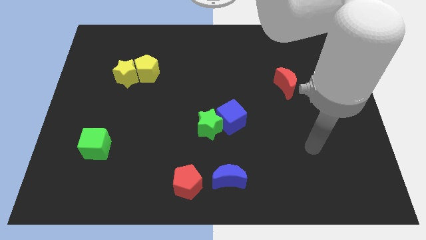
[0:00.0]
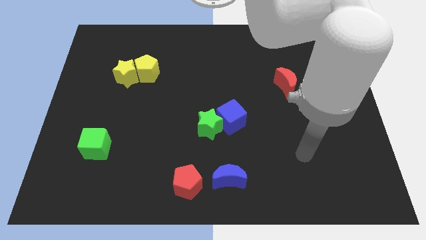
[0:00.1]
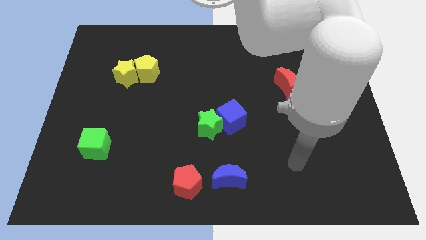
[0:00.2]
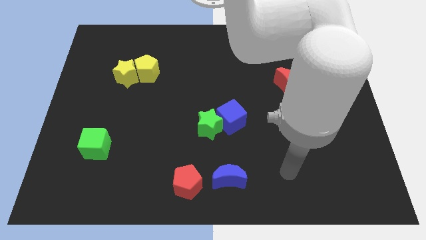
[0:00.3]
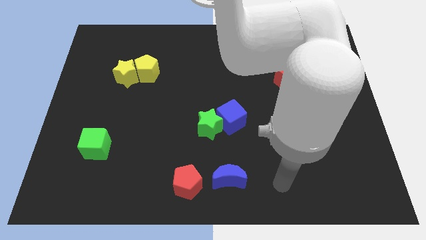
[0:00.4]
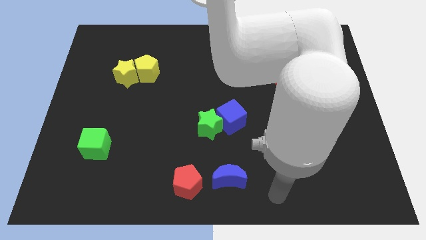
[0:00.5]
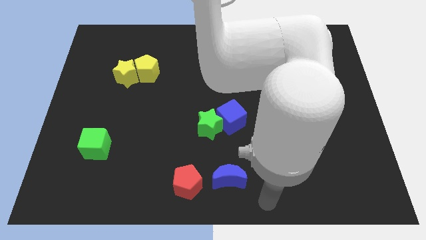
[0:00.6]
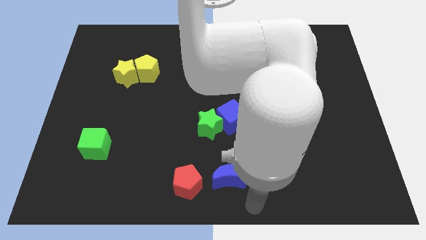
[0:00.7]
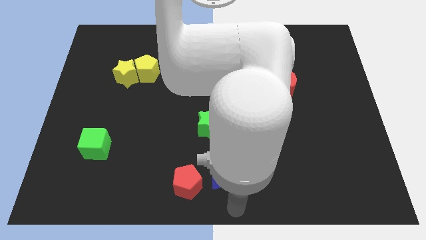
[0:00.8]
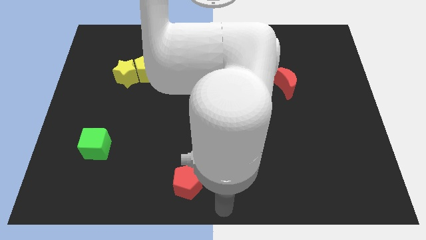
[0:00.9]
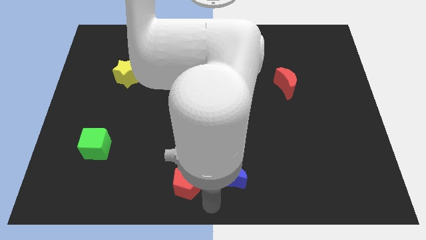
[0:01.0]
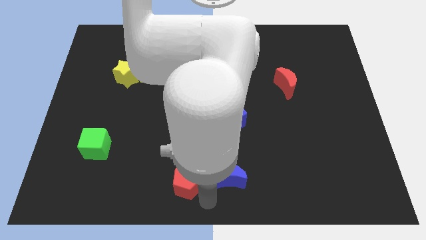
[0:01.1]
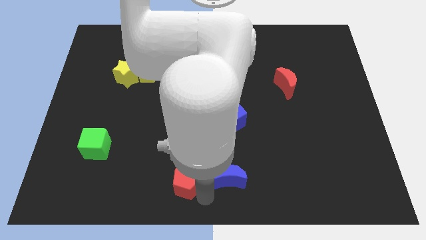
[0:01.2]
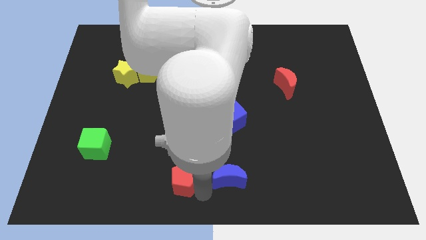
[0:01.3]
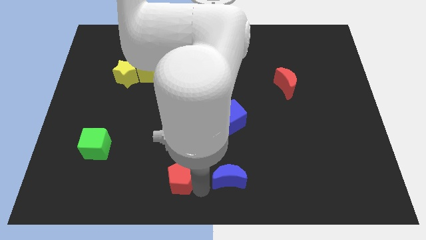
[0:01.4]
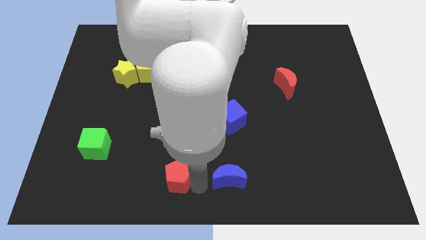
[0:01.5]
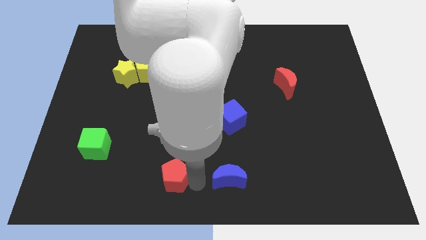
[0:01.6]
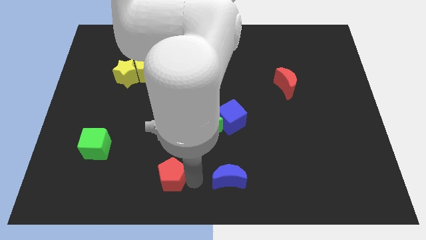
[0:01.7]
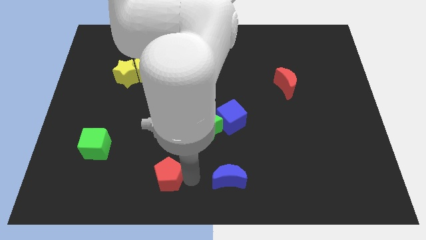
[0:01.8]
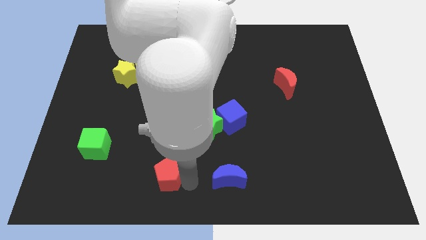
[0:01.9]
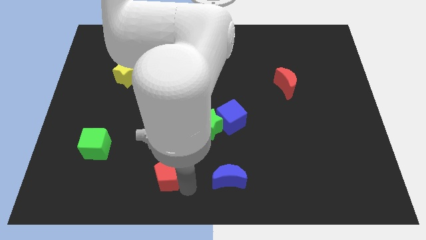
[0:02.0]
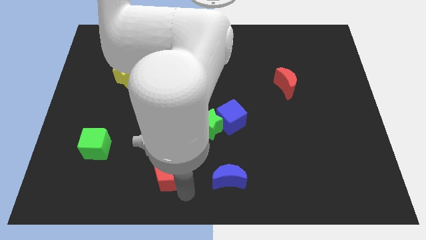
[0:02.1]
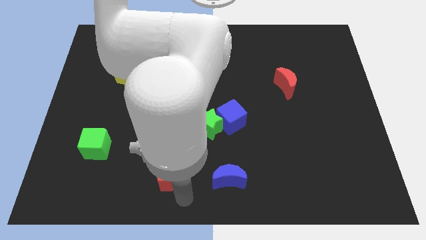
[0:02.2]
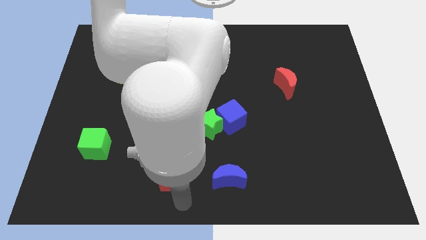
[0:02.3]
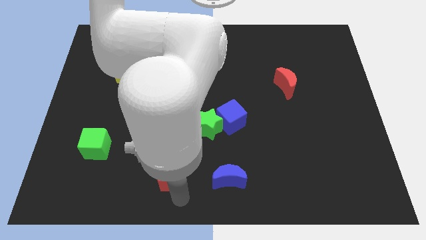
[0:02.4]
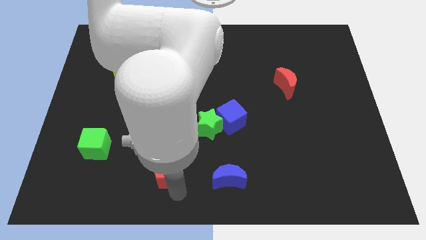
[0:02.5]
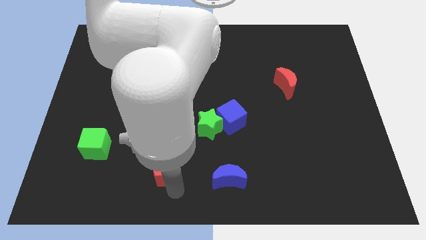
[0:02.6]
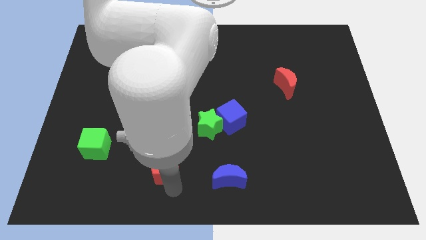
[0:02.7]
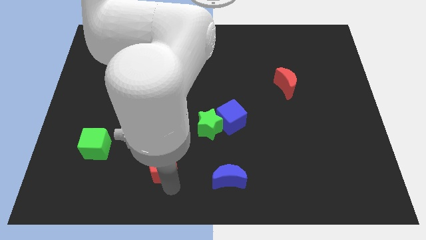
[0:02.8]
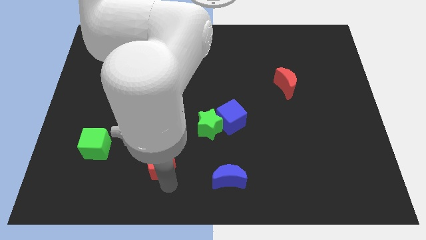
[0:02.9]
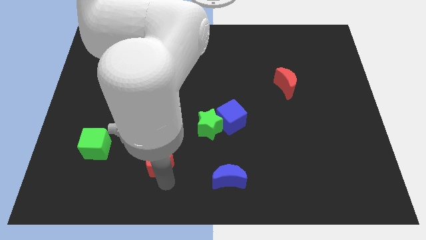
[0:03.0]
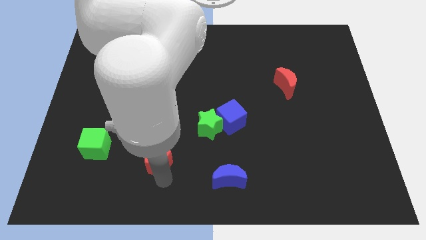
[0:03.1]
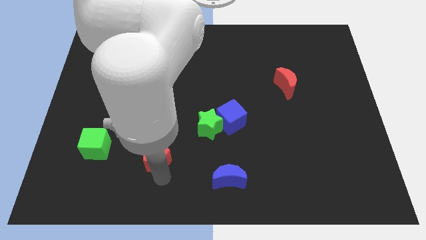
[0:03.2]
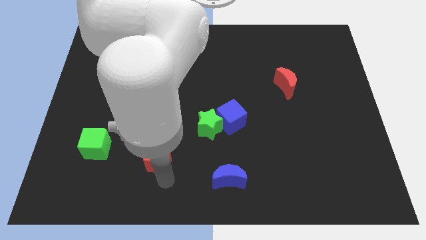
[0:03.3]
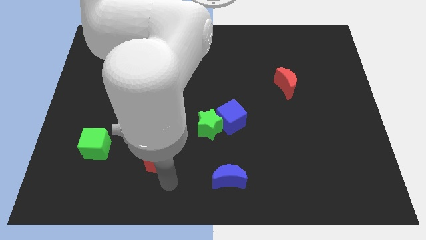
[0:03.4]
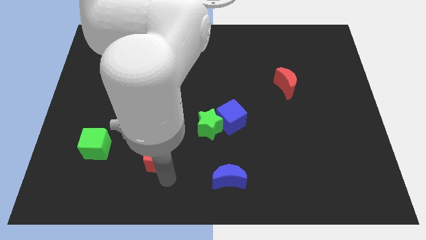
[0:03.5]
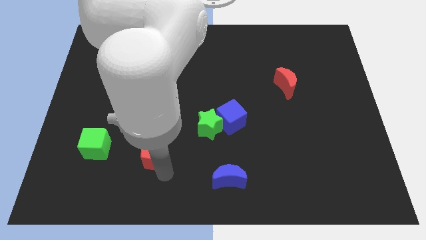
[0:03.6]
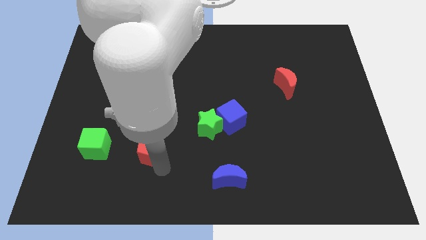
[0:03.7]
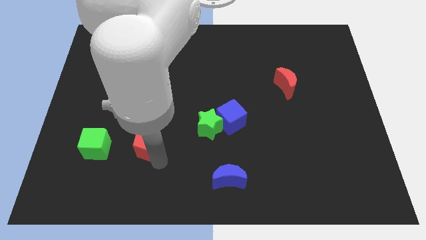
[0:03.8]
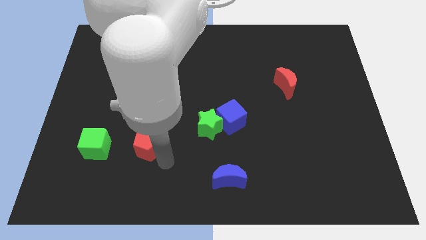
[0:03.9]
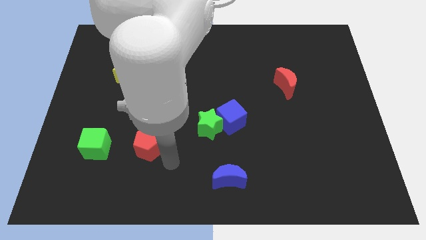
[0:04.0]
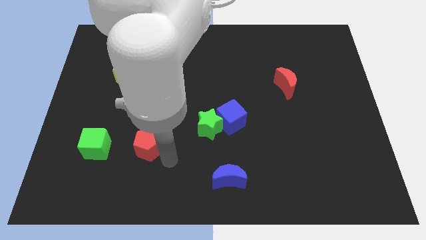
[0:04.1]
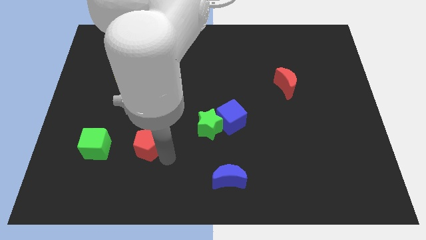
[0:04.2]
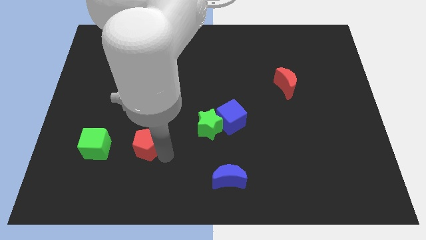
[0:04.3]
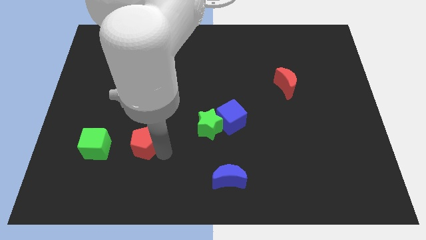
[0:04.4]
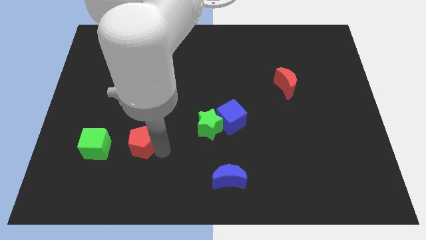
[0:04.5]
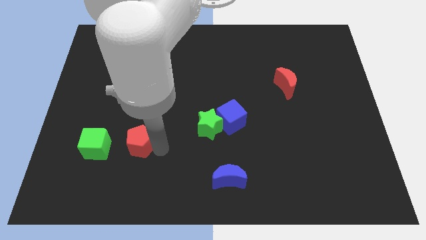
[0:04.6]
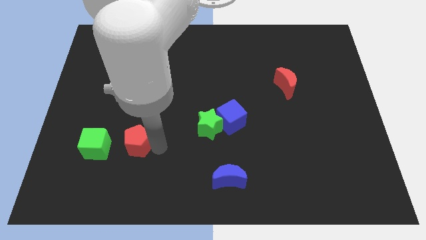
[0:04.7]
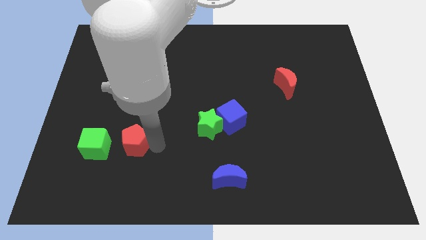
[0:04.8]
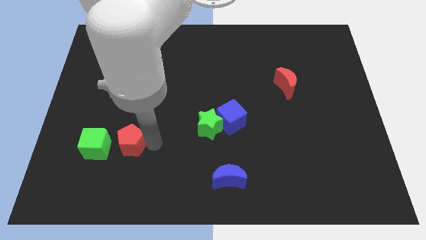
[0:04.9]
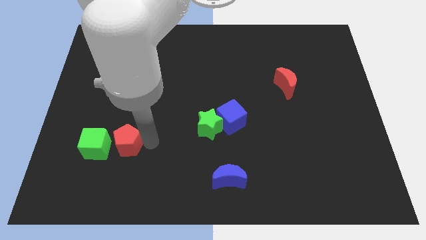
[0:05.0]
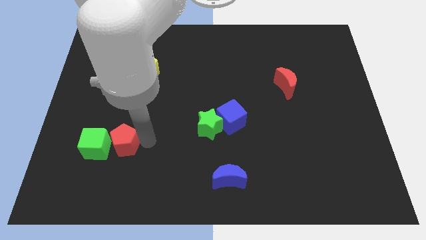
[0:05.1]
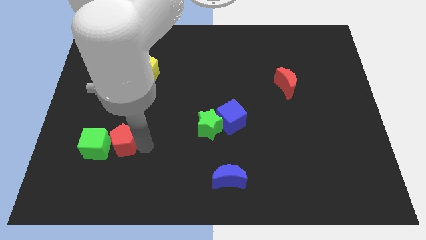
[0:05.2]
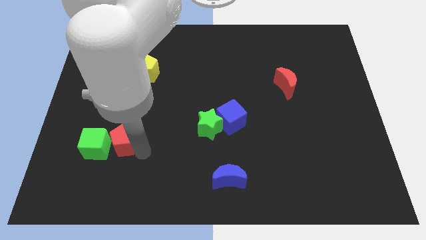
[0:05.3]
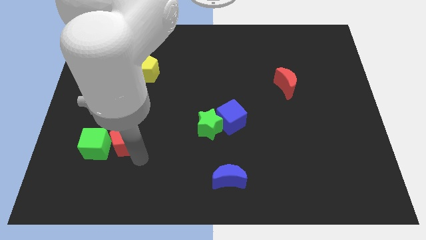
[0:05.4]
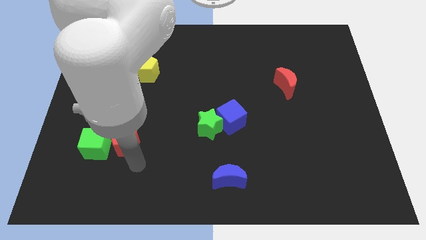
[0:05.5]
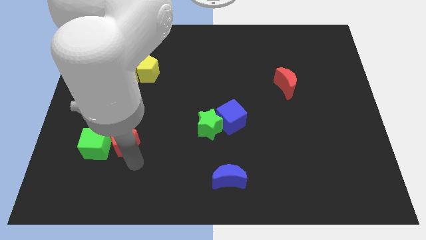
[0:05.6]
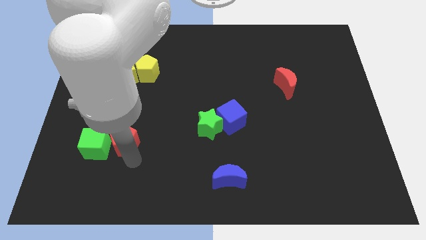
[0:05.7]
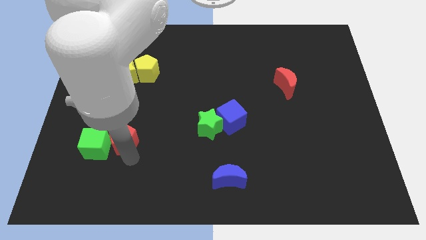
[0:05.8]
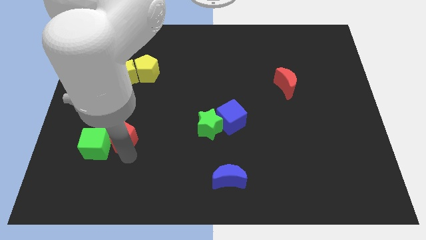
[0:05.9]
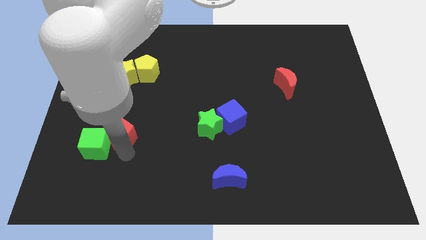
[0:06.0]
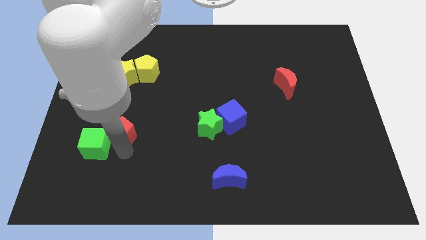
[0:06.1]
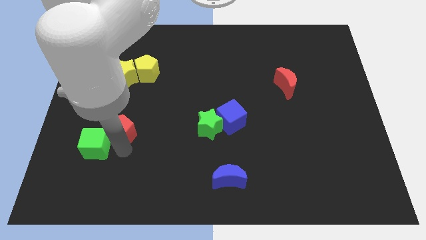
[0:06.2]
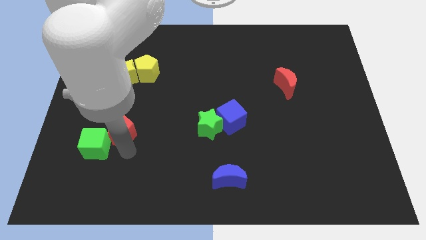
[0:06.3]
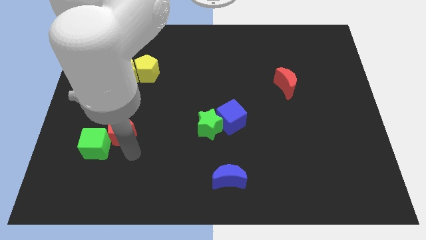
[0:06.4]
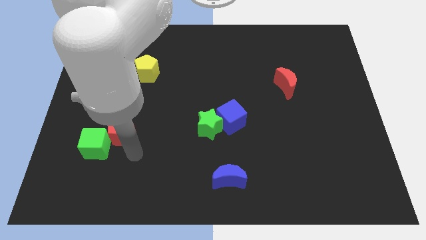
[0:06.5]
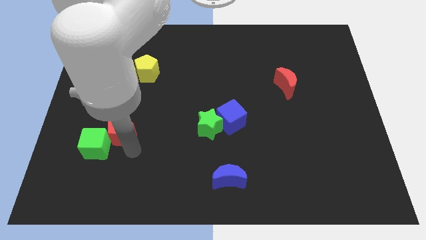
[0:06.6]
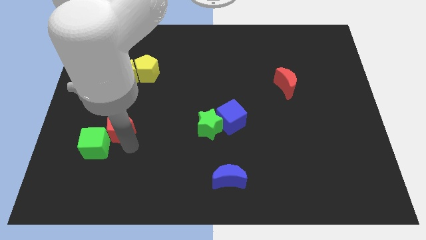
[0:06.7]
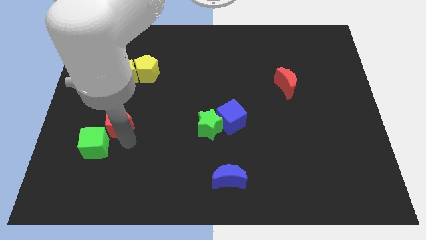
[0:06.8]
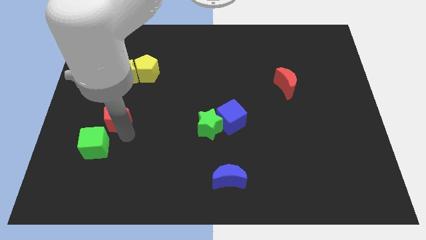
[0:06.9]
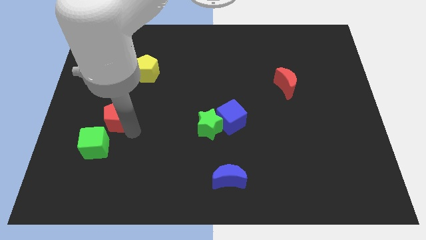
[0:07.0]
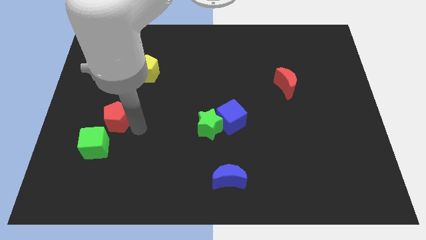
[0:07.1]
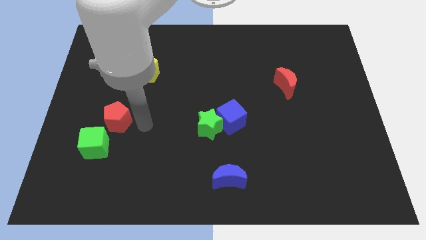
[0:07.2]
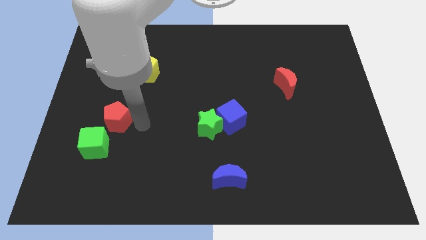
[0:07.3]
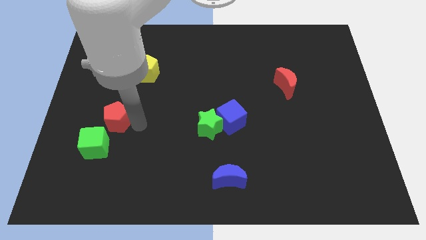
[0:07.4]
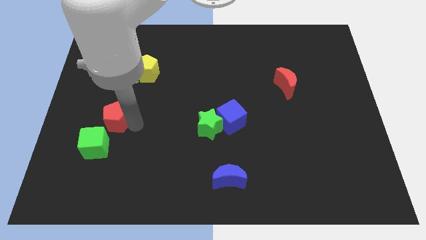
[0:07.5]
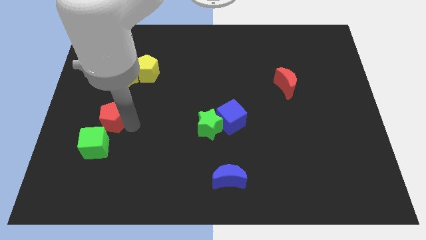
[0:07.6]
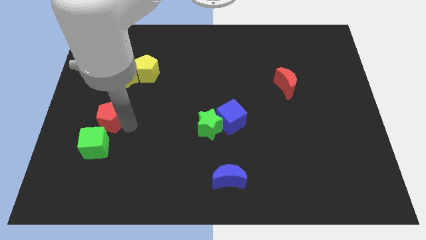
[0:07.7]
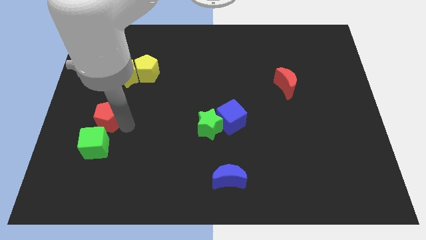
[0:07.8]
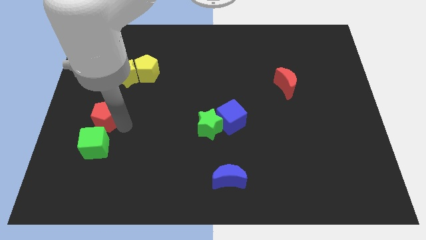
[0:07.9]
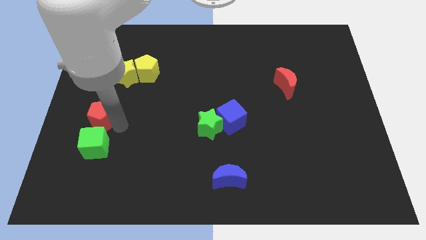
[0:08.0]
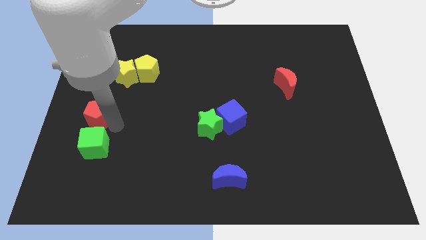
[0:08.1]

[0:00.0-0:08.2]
move the red pentagon to the left side of the board
